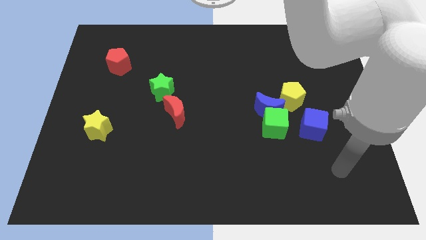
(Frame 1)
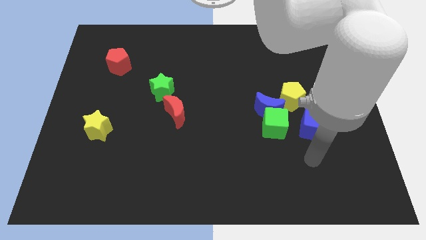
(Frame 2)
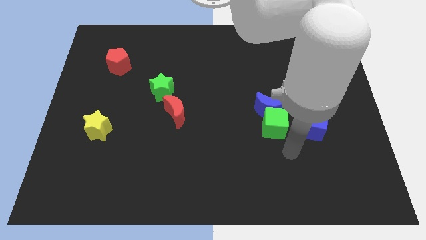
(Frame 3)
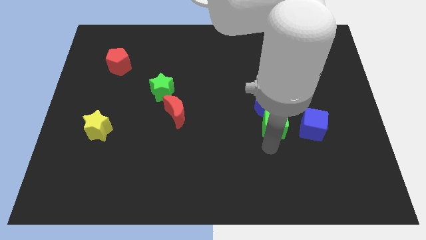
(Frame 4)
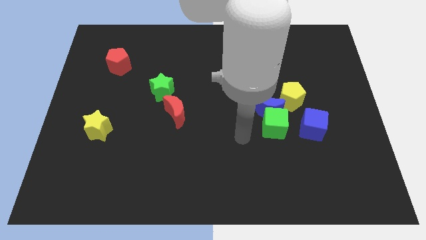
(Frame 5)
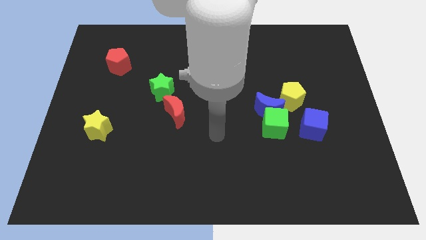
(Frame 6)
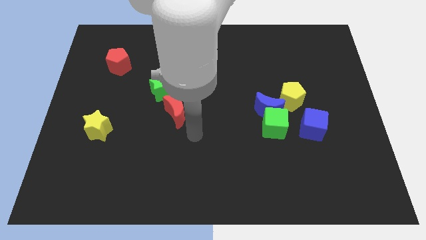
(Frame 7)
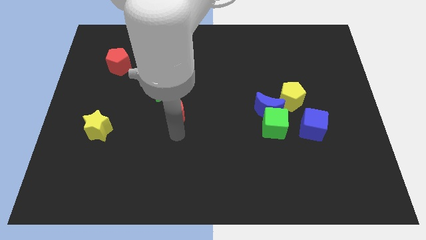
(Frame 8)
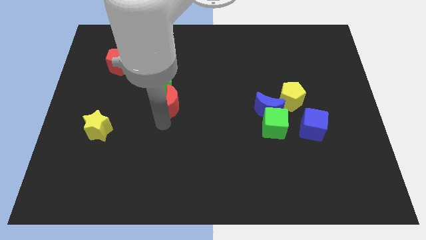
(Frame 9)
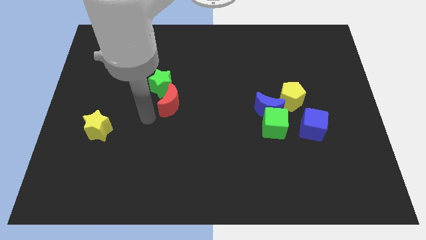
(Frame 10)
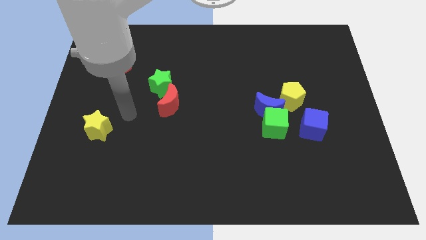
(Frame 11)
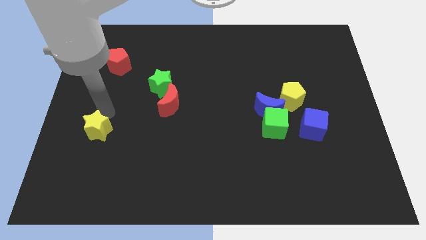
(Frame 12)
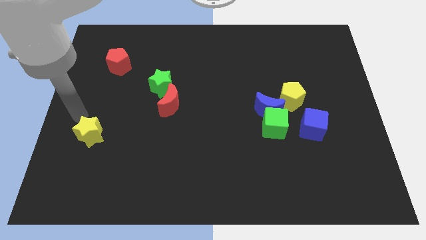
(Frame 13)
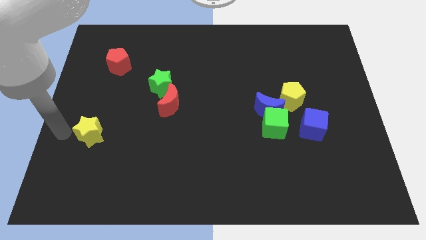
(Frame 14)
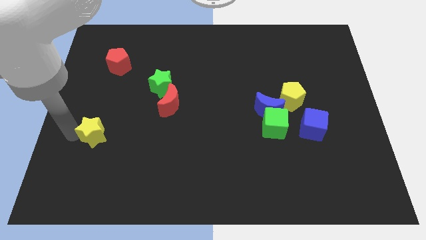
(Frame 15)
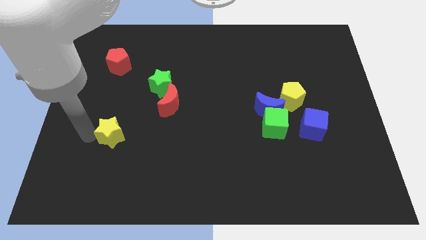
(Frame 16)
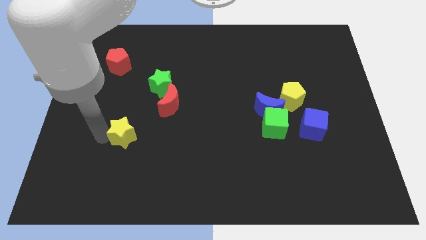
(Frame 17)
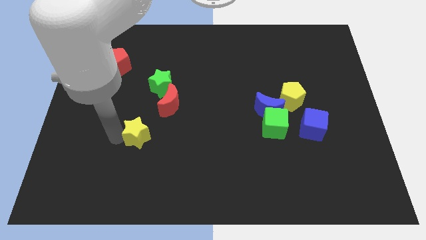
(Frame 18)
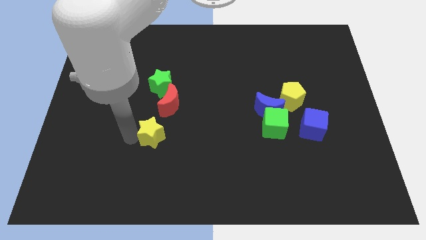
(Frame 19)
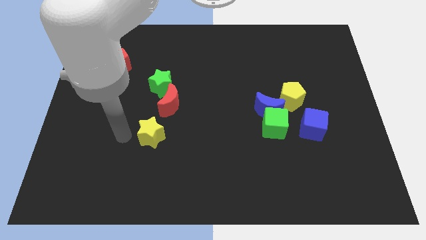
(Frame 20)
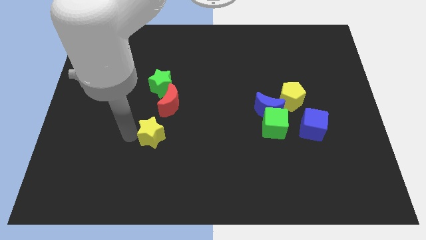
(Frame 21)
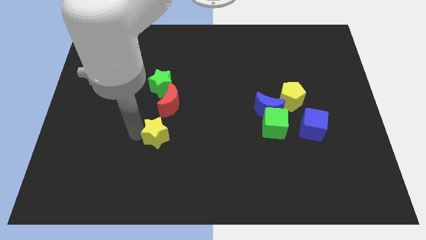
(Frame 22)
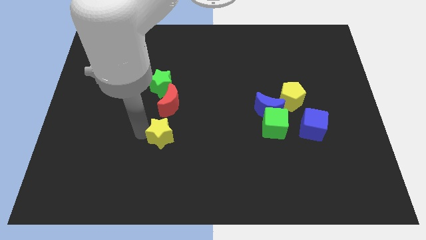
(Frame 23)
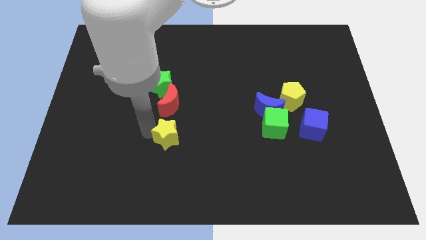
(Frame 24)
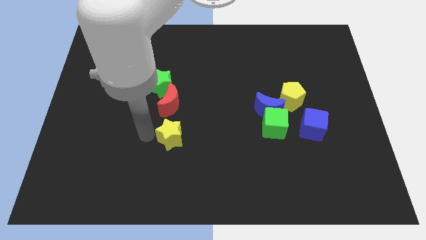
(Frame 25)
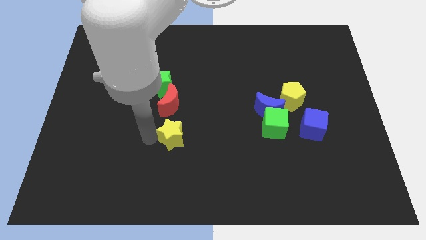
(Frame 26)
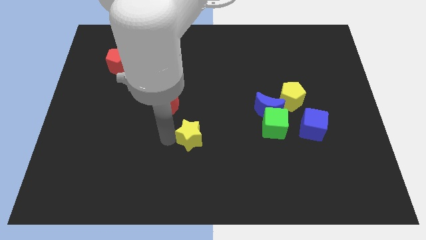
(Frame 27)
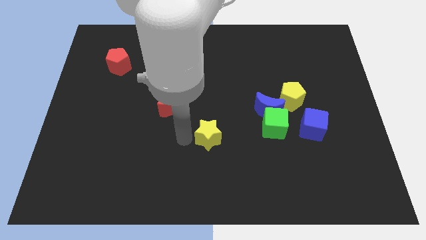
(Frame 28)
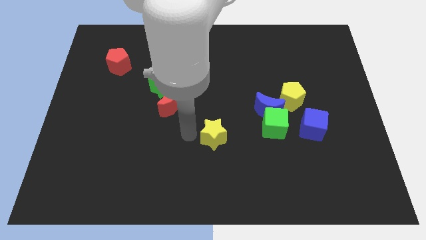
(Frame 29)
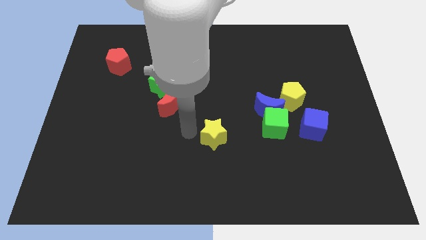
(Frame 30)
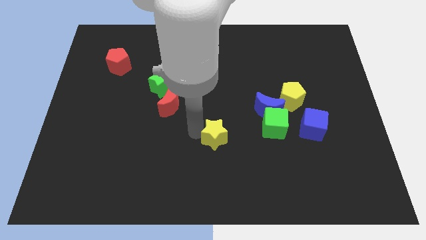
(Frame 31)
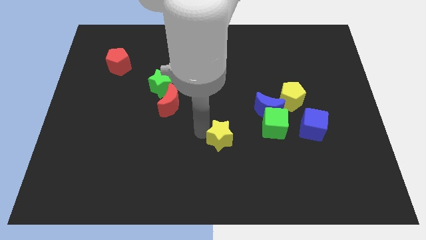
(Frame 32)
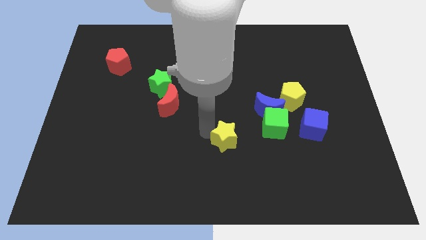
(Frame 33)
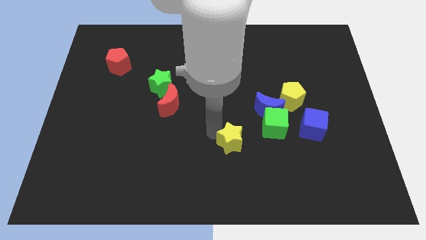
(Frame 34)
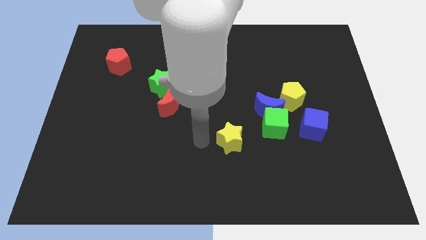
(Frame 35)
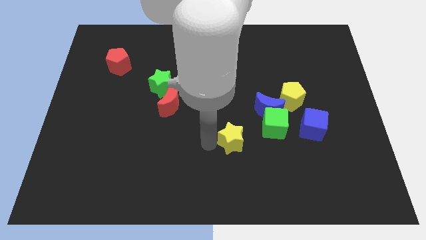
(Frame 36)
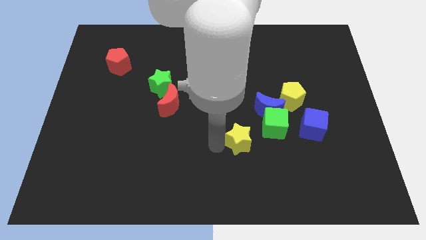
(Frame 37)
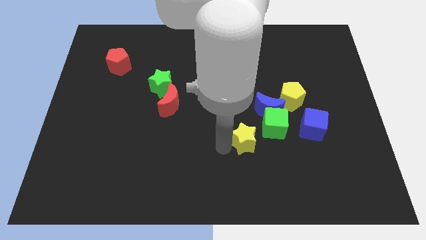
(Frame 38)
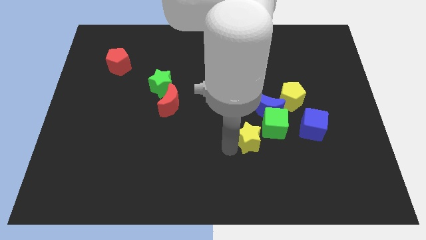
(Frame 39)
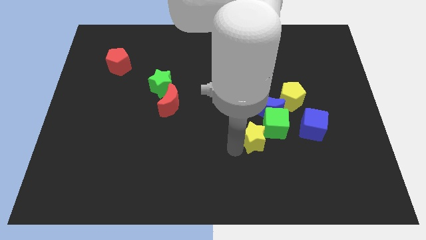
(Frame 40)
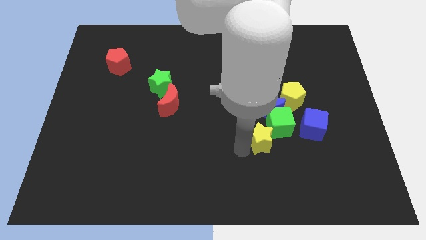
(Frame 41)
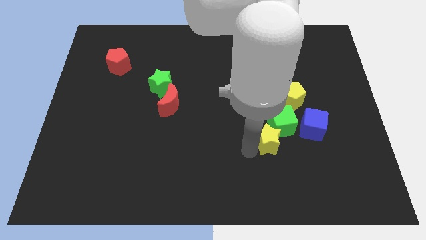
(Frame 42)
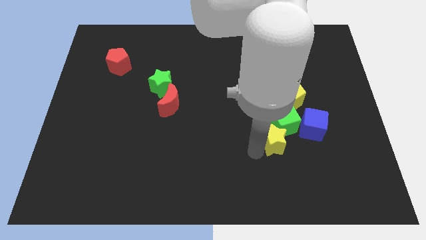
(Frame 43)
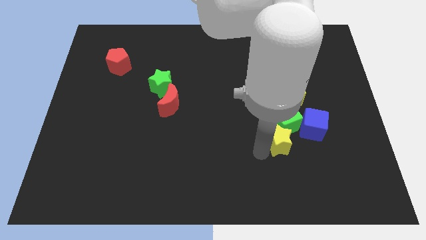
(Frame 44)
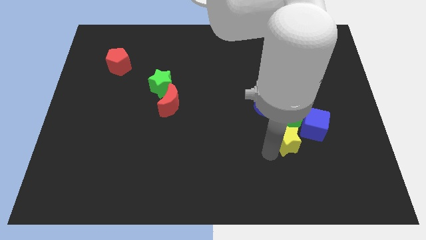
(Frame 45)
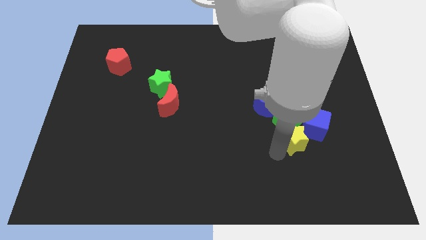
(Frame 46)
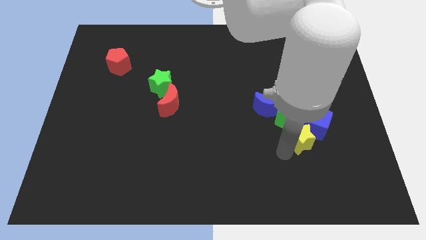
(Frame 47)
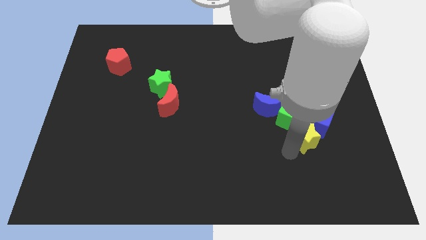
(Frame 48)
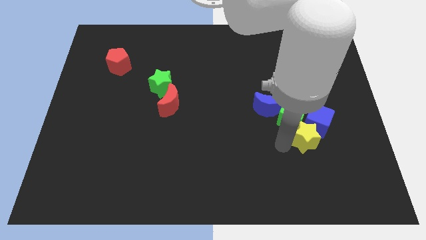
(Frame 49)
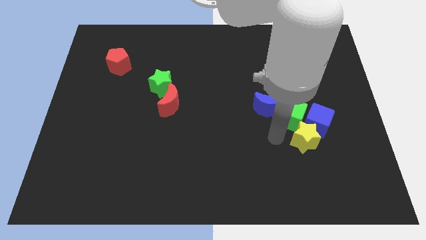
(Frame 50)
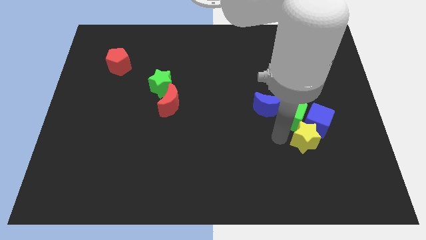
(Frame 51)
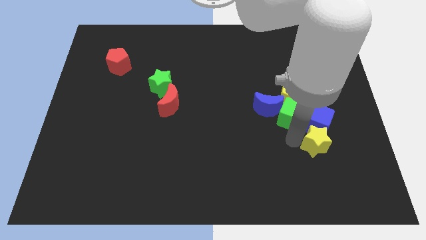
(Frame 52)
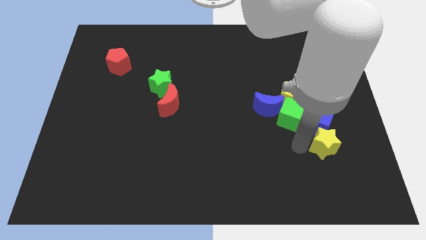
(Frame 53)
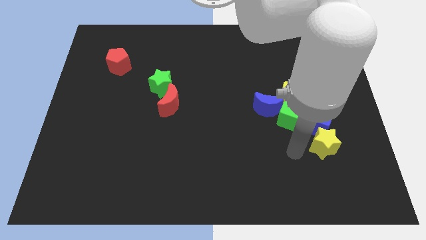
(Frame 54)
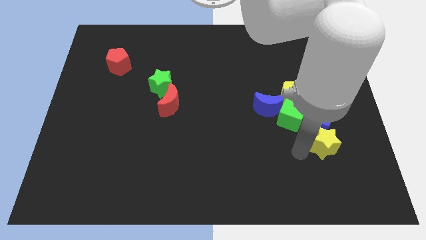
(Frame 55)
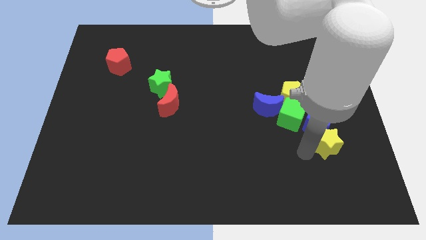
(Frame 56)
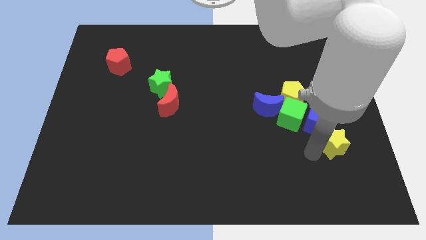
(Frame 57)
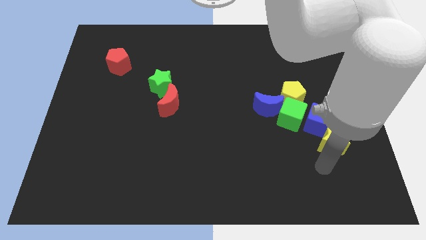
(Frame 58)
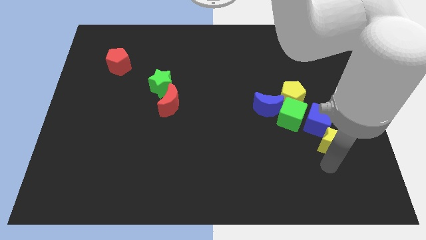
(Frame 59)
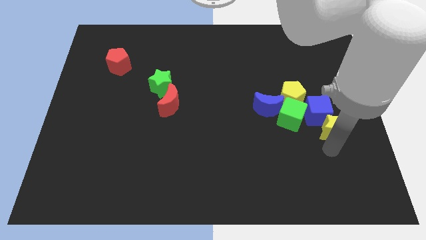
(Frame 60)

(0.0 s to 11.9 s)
put the yellow star just right of the green cube

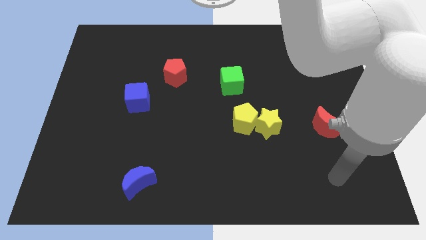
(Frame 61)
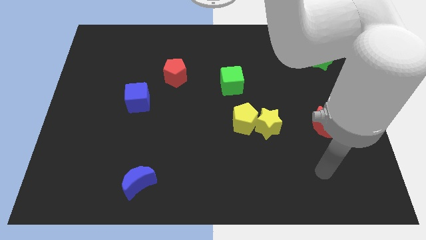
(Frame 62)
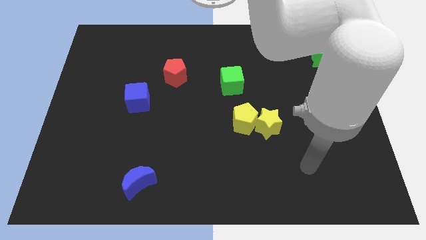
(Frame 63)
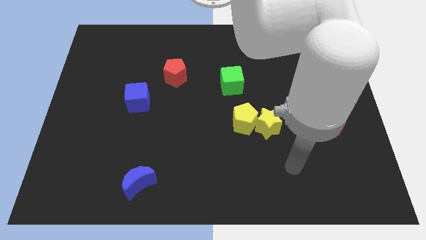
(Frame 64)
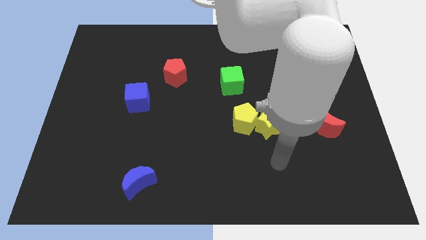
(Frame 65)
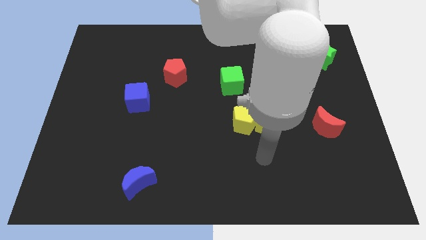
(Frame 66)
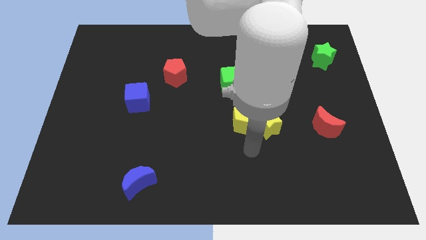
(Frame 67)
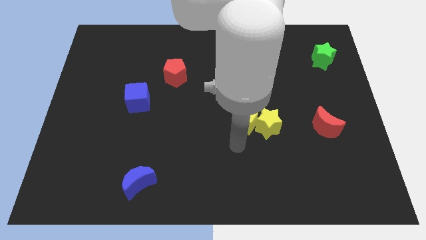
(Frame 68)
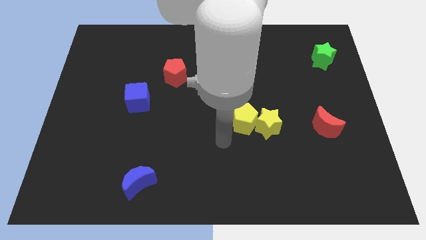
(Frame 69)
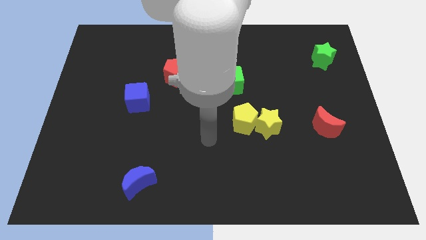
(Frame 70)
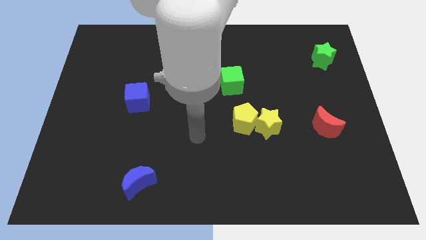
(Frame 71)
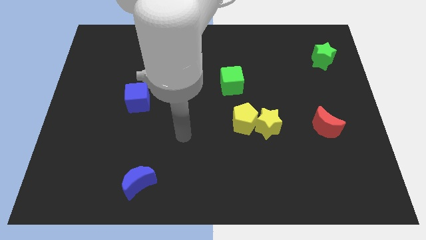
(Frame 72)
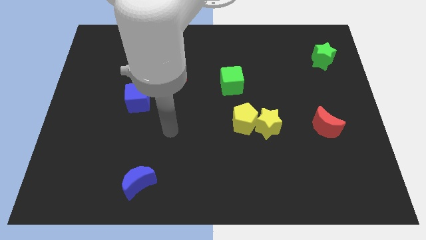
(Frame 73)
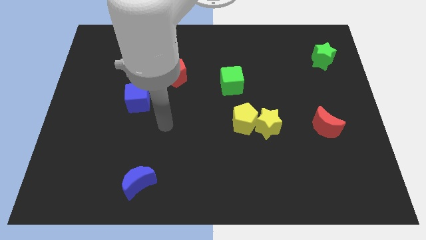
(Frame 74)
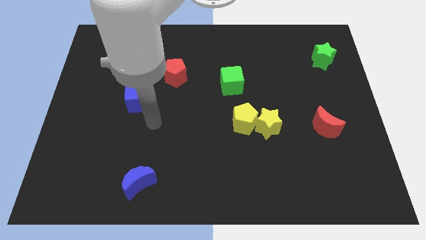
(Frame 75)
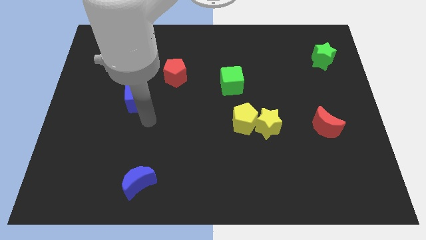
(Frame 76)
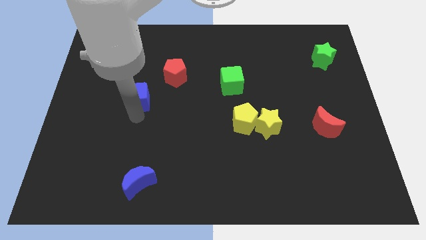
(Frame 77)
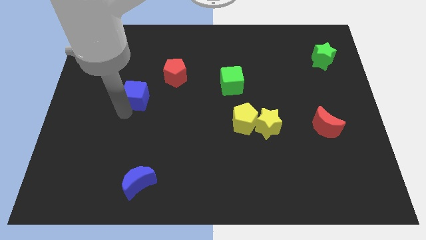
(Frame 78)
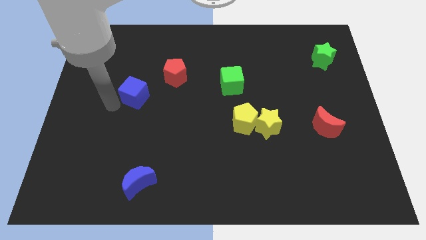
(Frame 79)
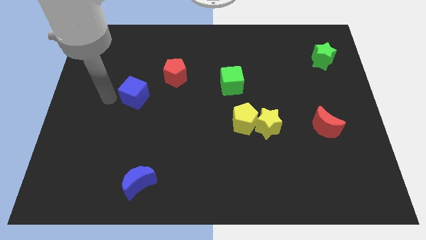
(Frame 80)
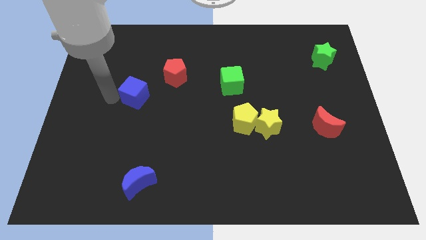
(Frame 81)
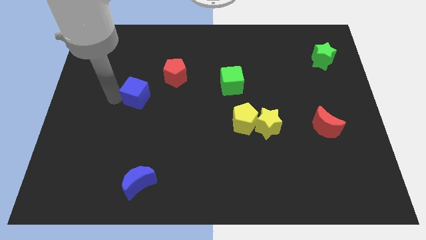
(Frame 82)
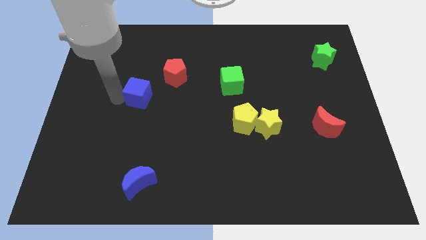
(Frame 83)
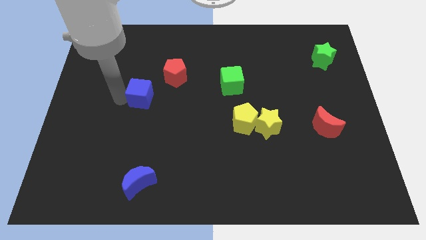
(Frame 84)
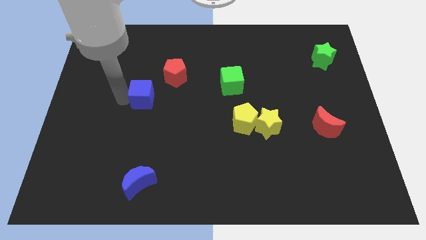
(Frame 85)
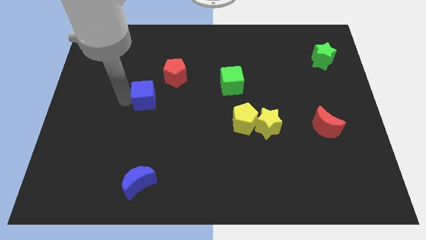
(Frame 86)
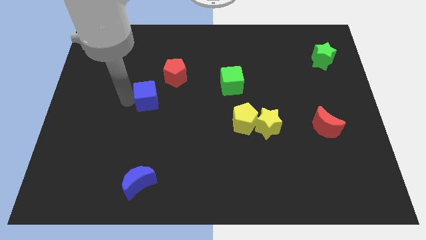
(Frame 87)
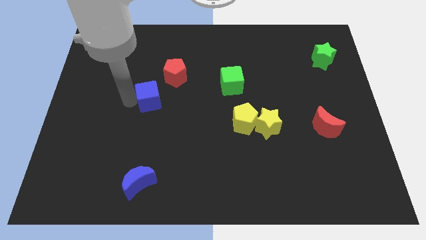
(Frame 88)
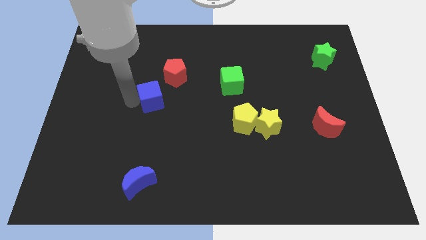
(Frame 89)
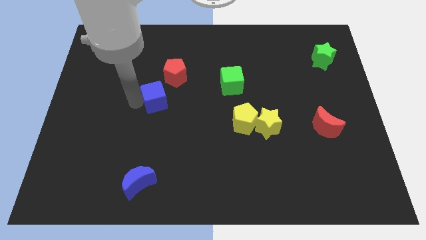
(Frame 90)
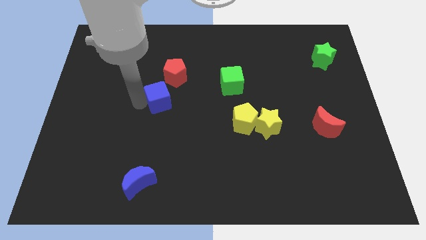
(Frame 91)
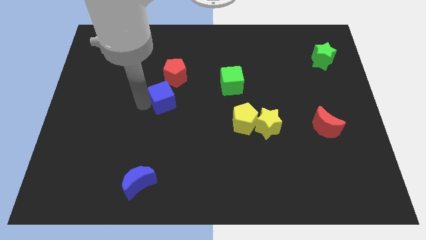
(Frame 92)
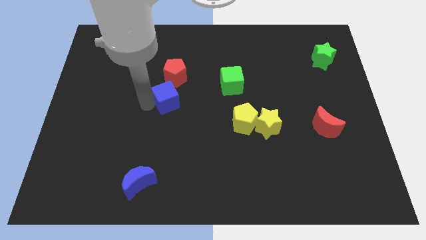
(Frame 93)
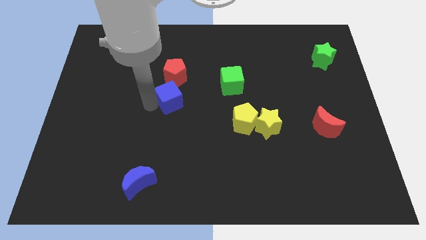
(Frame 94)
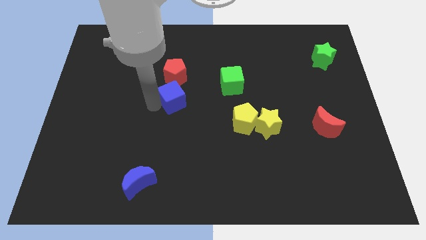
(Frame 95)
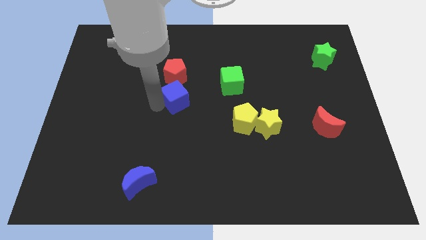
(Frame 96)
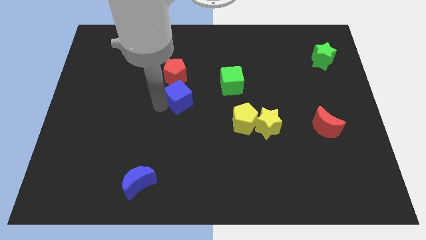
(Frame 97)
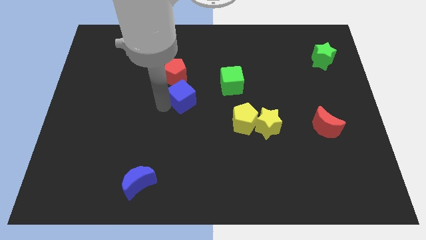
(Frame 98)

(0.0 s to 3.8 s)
slide the blue cube to the left of the green cube
